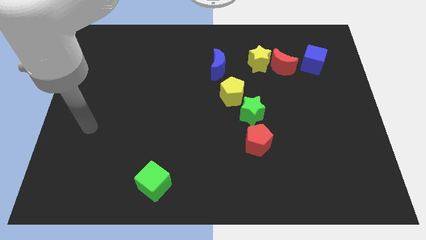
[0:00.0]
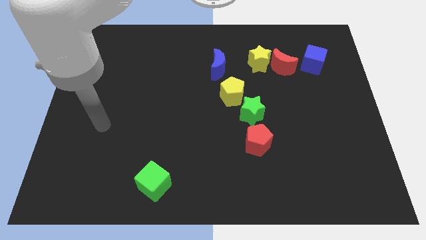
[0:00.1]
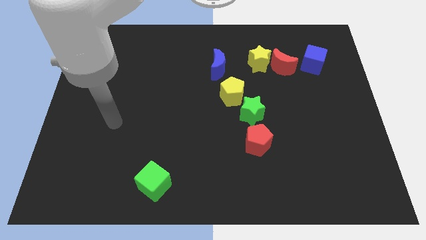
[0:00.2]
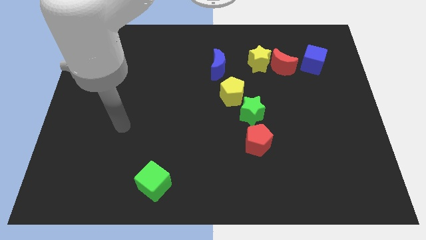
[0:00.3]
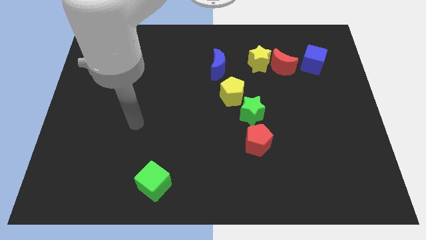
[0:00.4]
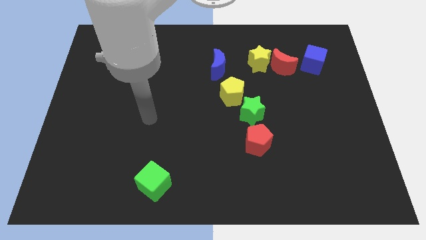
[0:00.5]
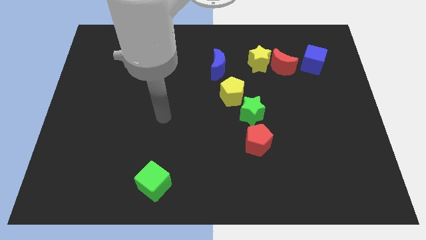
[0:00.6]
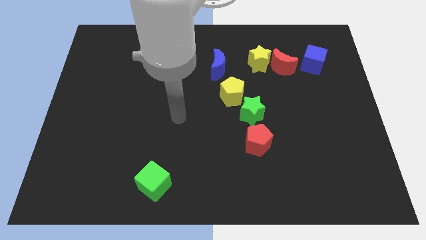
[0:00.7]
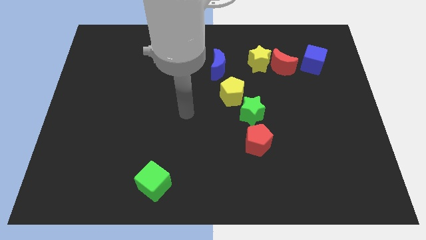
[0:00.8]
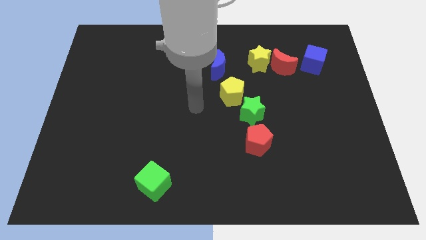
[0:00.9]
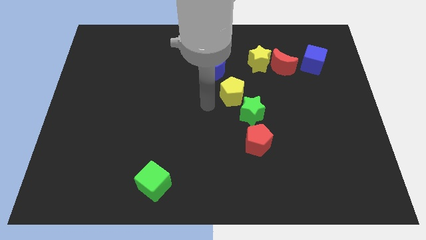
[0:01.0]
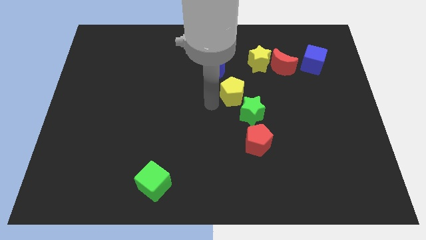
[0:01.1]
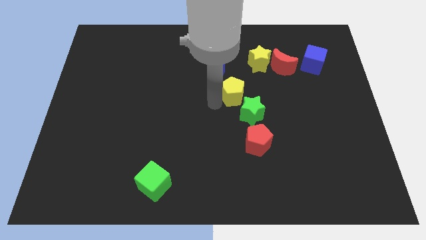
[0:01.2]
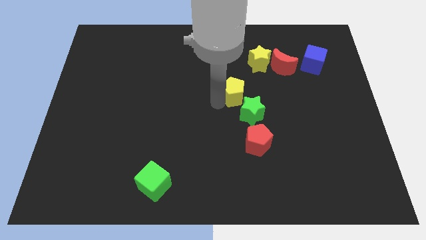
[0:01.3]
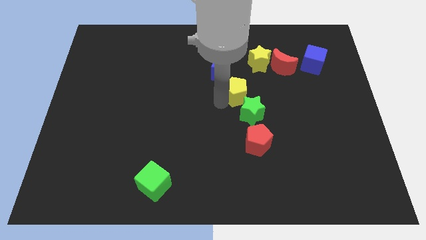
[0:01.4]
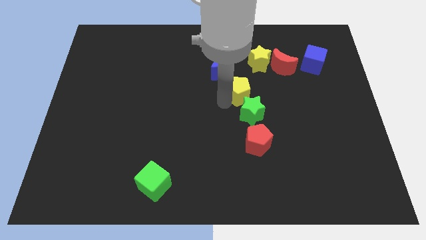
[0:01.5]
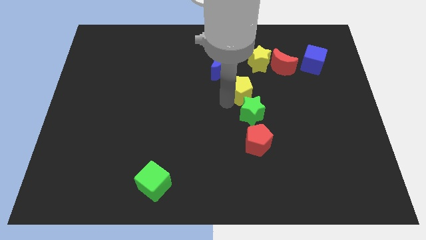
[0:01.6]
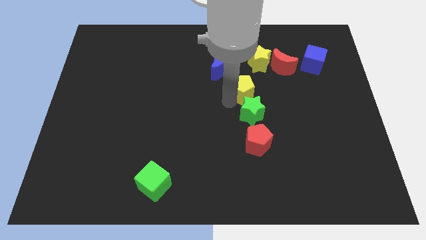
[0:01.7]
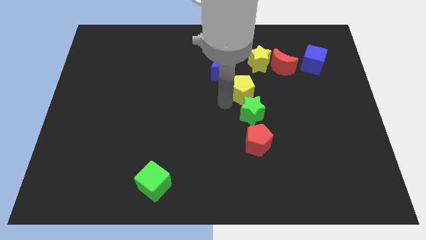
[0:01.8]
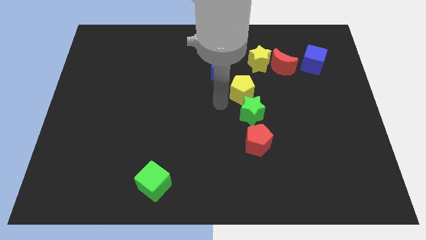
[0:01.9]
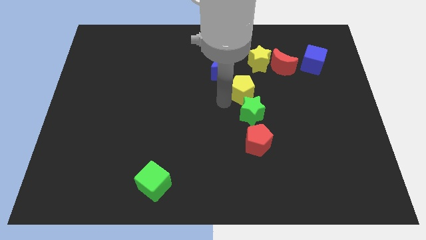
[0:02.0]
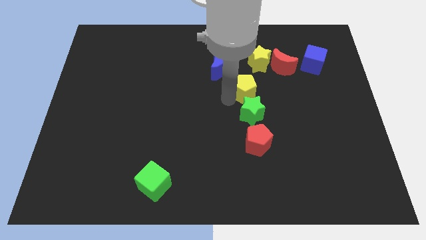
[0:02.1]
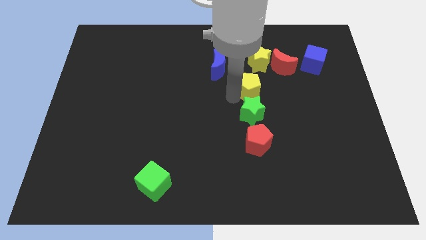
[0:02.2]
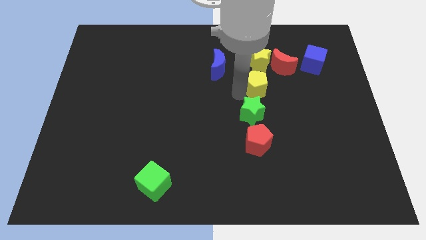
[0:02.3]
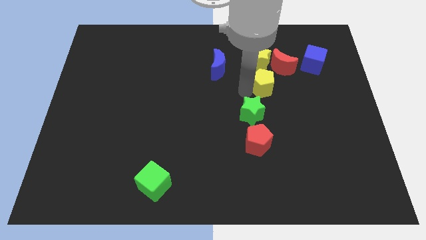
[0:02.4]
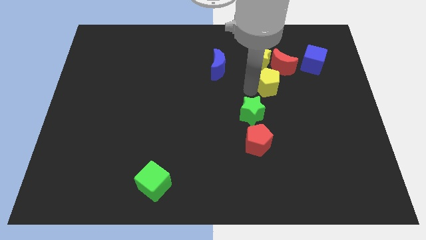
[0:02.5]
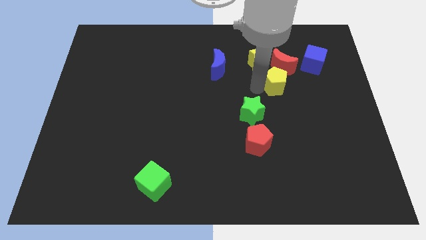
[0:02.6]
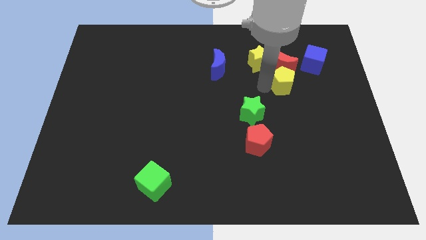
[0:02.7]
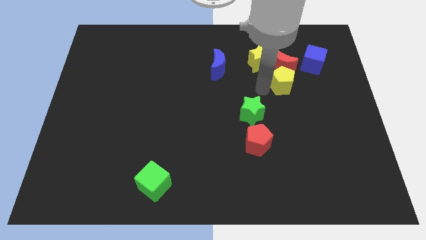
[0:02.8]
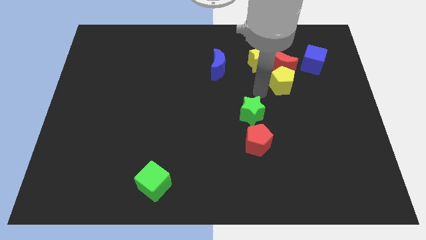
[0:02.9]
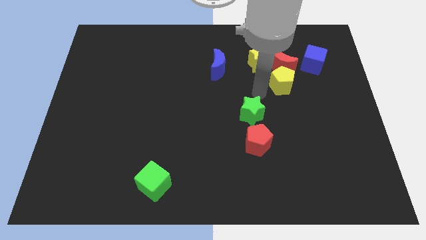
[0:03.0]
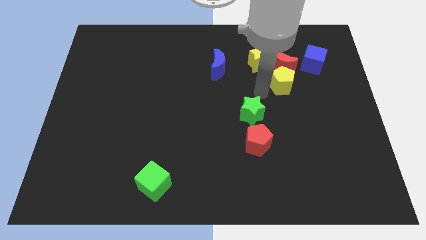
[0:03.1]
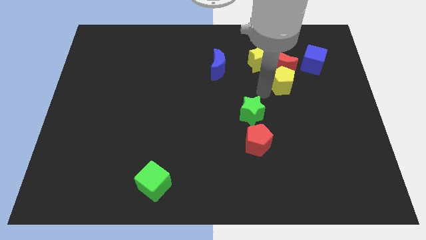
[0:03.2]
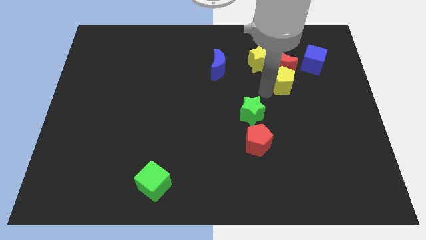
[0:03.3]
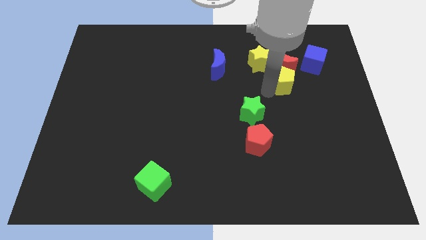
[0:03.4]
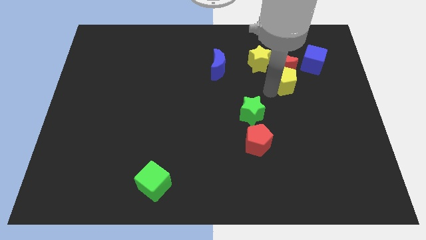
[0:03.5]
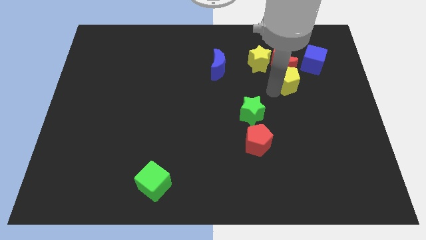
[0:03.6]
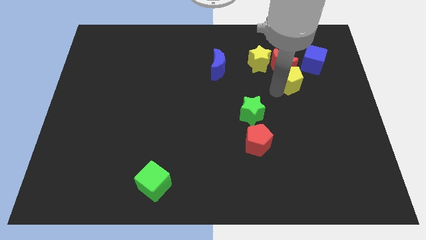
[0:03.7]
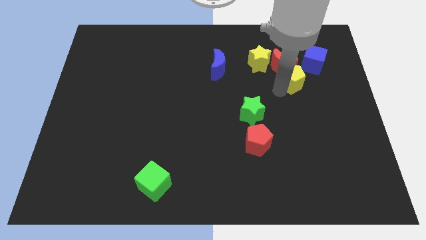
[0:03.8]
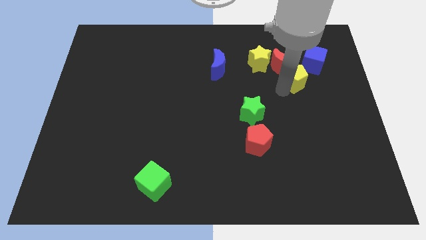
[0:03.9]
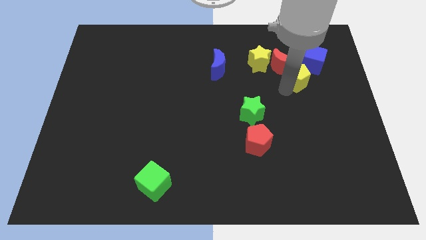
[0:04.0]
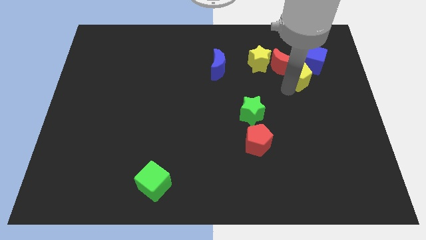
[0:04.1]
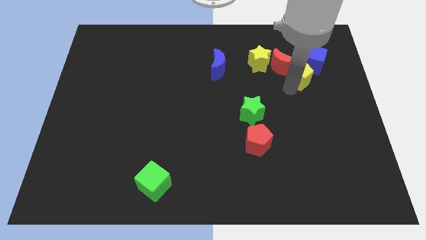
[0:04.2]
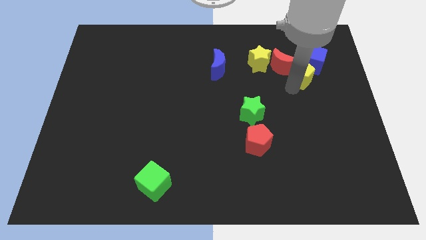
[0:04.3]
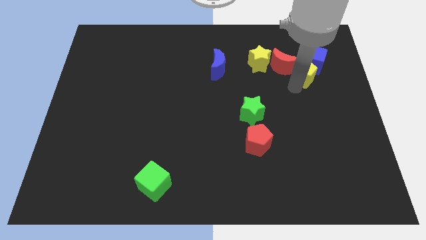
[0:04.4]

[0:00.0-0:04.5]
slide the yellow pentagon to the blue cube

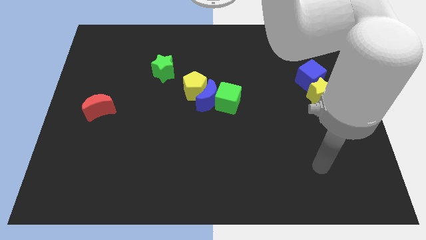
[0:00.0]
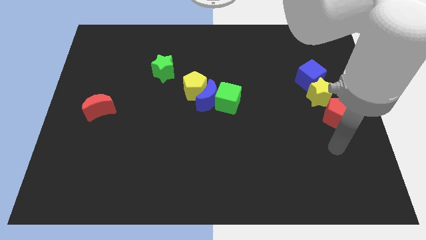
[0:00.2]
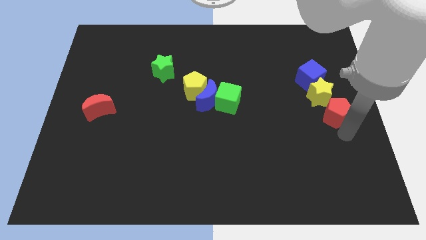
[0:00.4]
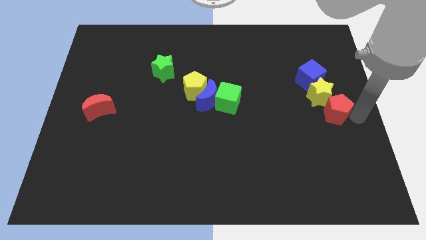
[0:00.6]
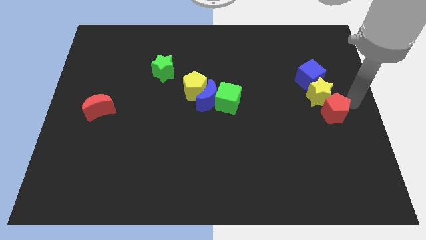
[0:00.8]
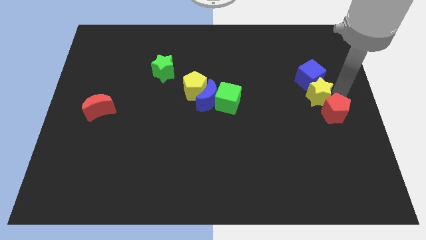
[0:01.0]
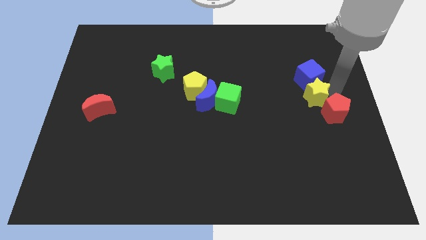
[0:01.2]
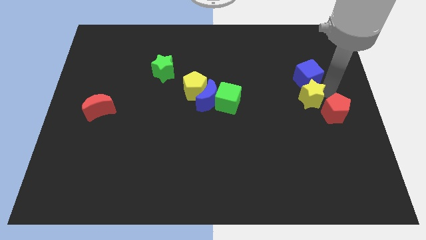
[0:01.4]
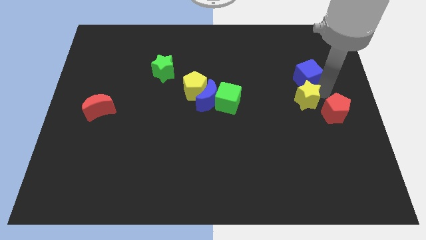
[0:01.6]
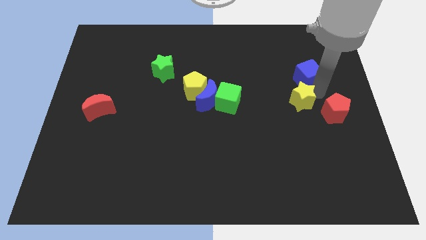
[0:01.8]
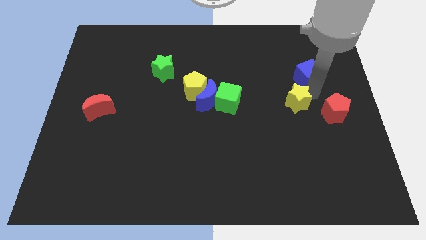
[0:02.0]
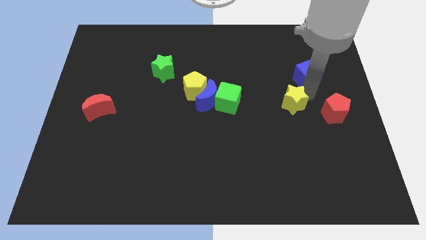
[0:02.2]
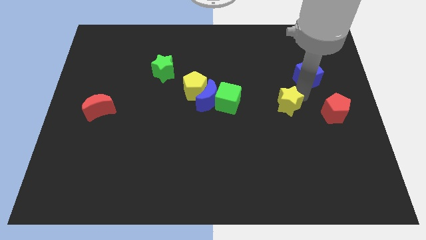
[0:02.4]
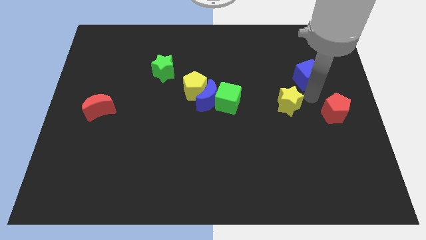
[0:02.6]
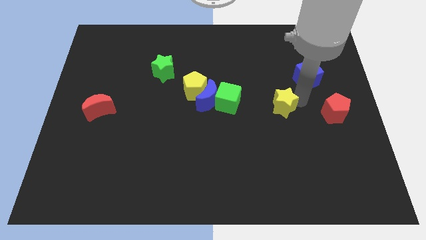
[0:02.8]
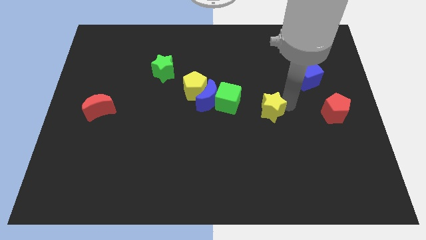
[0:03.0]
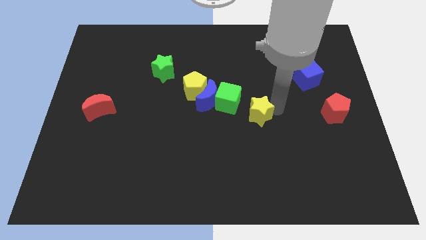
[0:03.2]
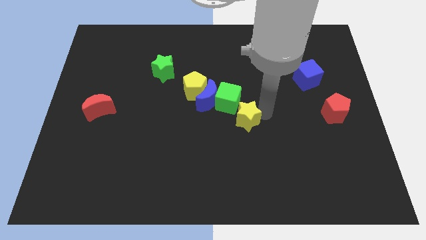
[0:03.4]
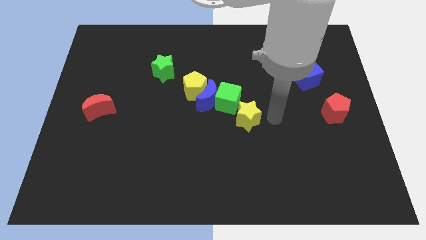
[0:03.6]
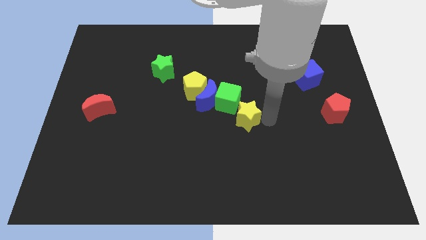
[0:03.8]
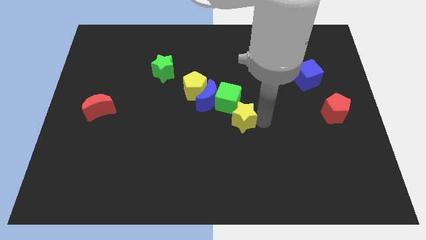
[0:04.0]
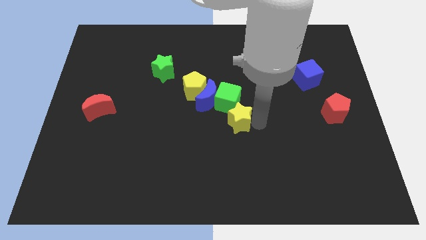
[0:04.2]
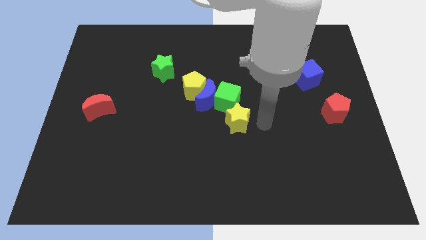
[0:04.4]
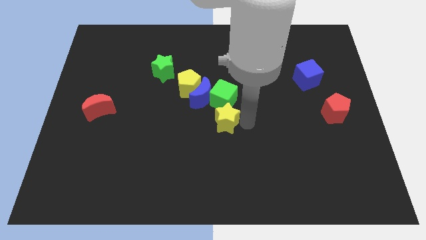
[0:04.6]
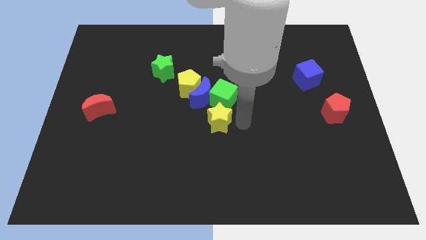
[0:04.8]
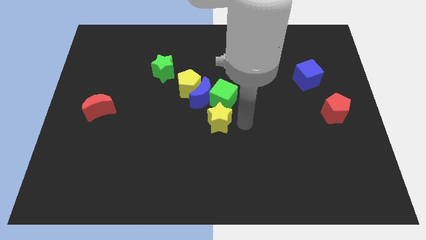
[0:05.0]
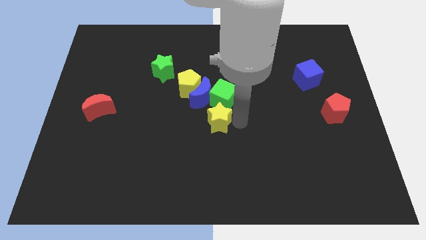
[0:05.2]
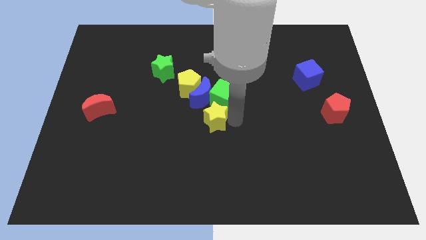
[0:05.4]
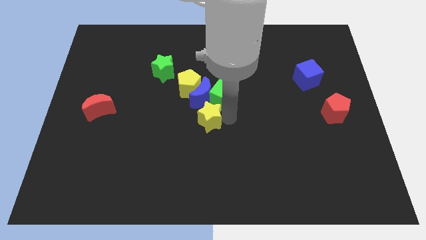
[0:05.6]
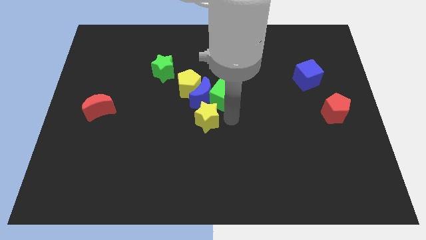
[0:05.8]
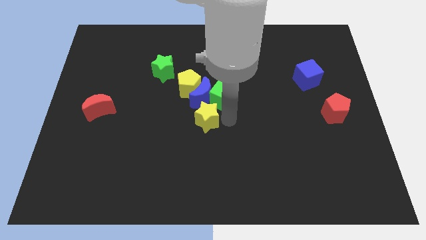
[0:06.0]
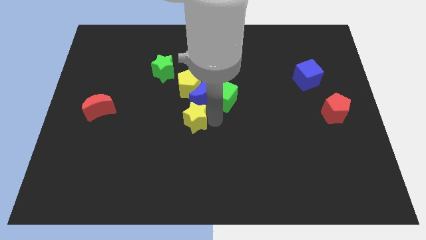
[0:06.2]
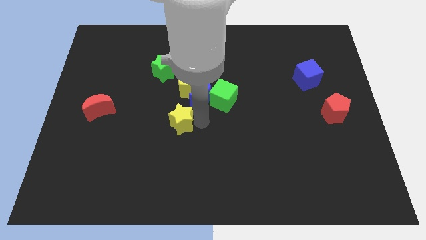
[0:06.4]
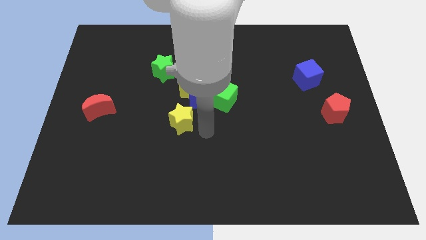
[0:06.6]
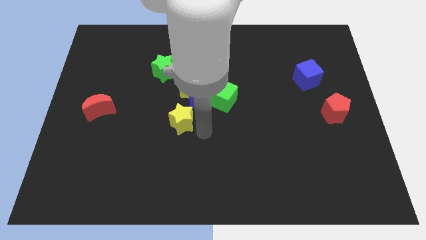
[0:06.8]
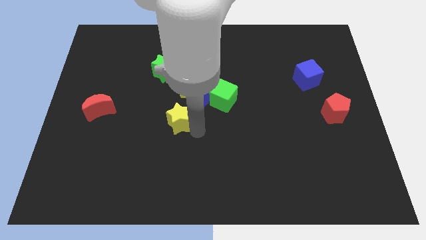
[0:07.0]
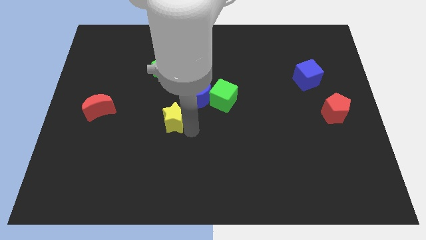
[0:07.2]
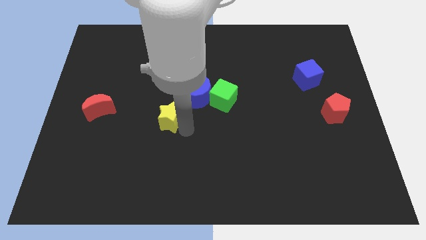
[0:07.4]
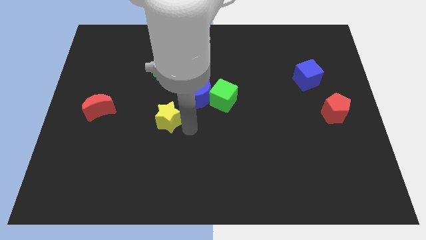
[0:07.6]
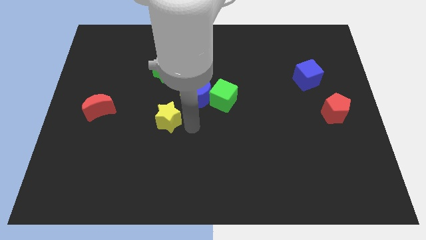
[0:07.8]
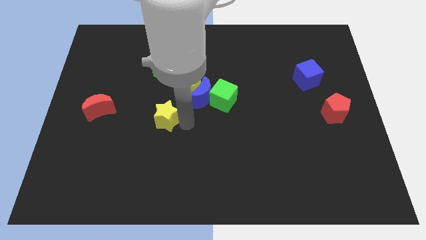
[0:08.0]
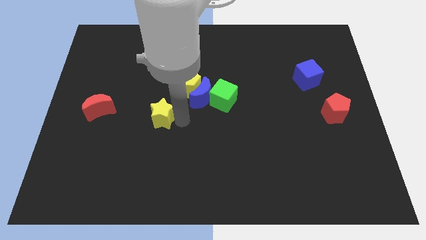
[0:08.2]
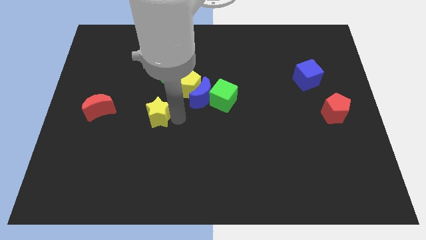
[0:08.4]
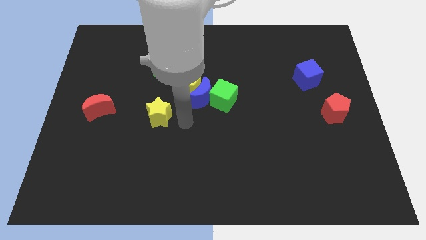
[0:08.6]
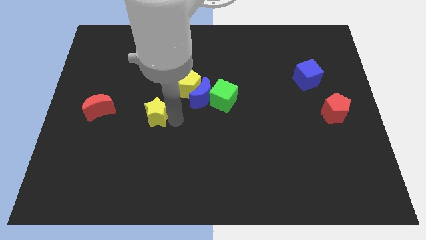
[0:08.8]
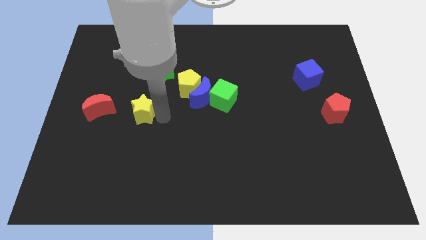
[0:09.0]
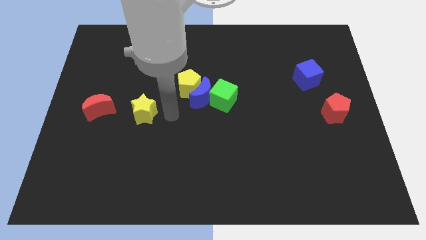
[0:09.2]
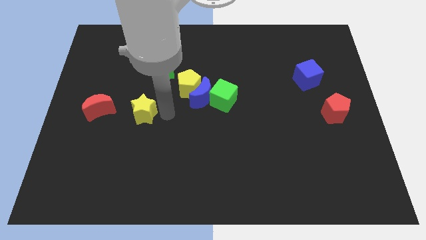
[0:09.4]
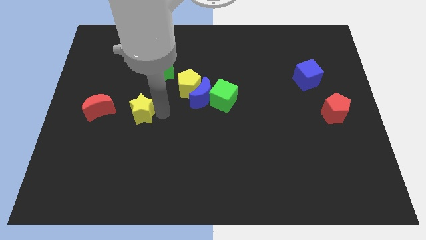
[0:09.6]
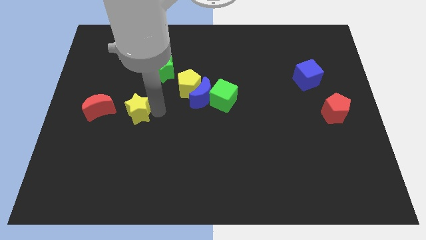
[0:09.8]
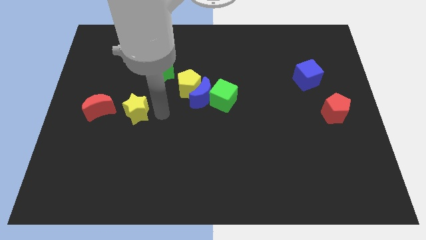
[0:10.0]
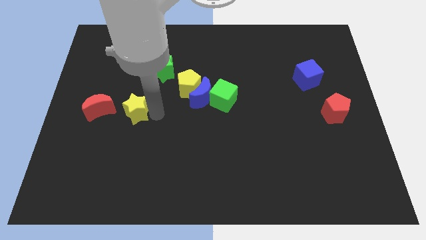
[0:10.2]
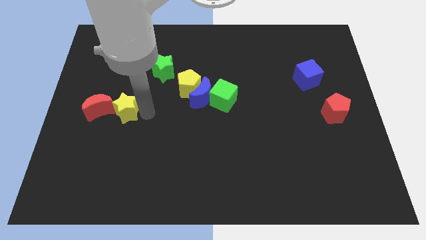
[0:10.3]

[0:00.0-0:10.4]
slide the yellow star close to the red moon
